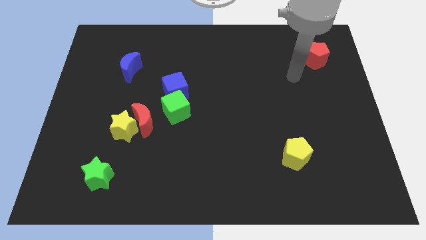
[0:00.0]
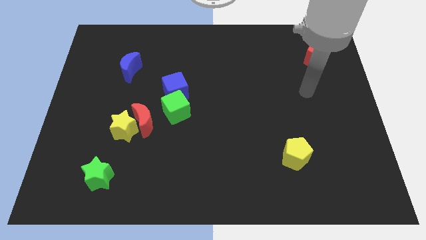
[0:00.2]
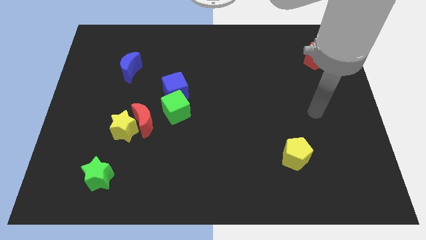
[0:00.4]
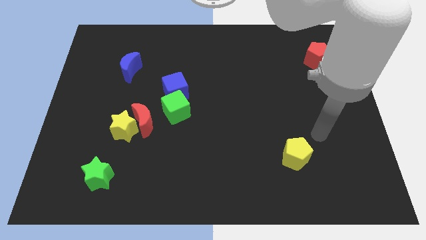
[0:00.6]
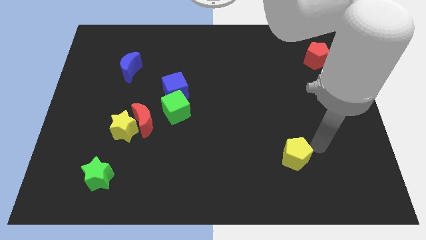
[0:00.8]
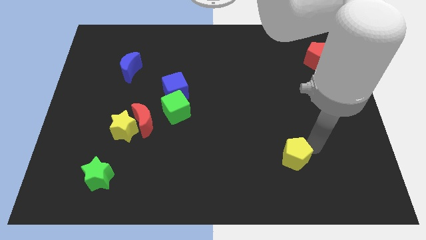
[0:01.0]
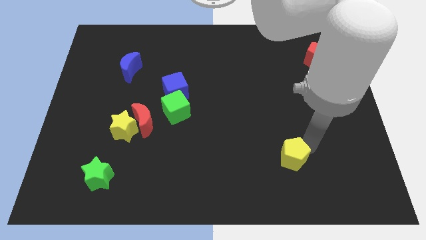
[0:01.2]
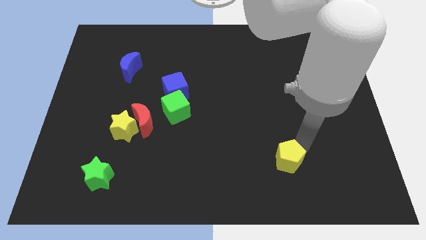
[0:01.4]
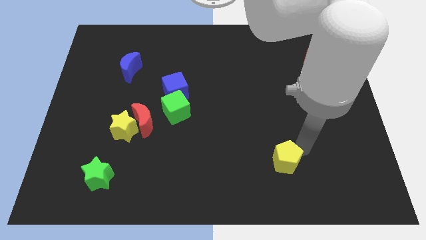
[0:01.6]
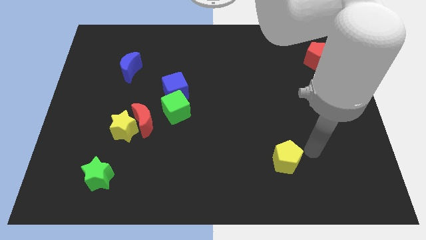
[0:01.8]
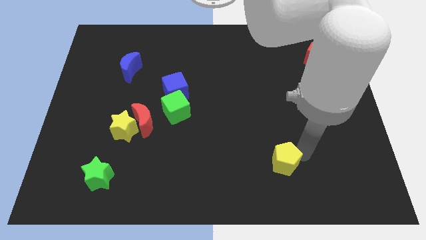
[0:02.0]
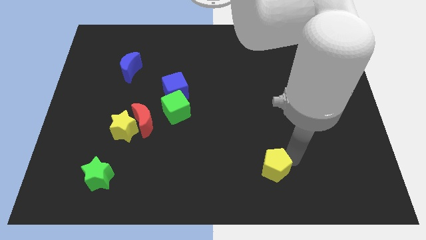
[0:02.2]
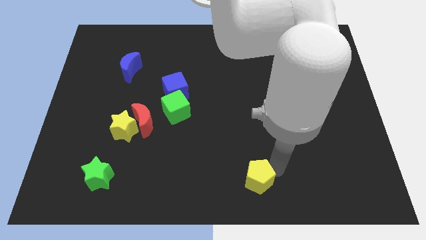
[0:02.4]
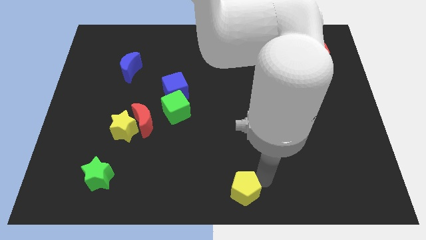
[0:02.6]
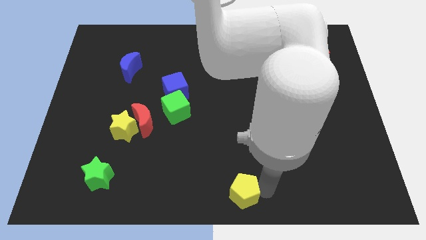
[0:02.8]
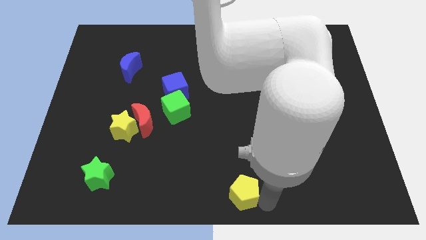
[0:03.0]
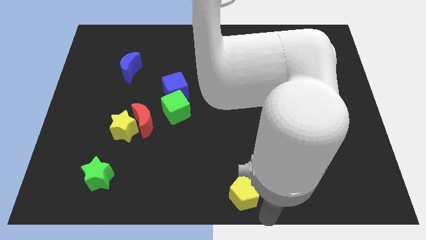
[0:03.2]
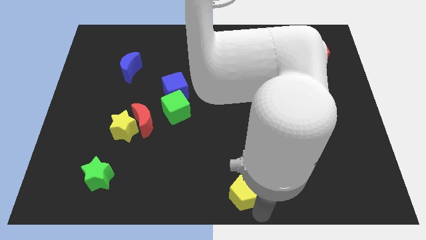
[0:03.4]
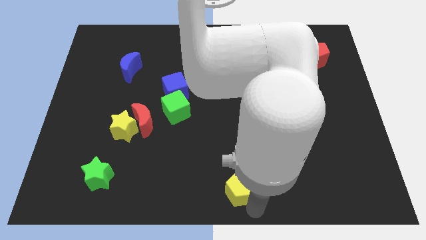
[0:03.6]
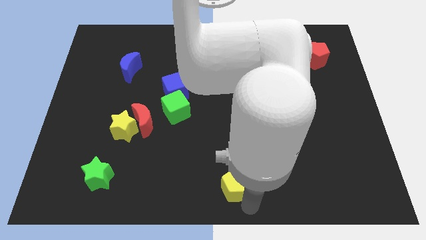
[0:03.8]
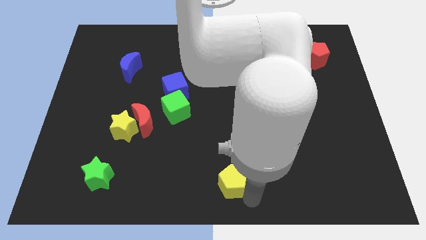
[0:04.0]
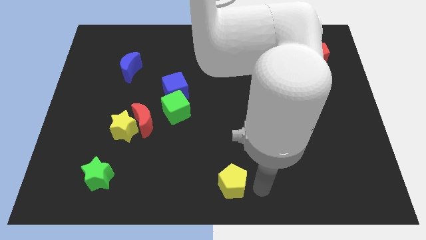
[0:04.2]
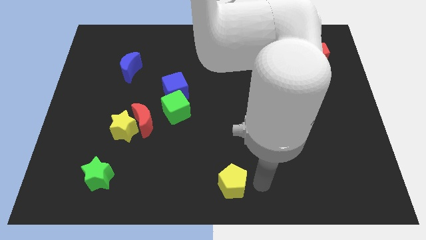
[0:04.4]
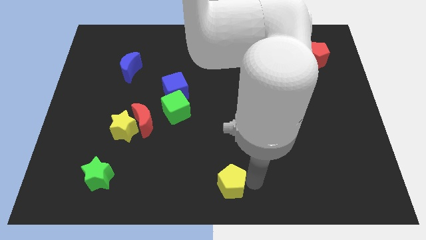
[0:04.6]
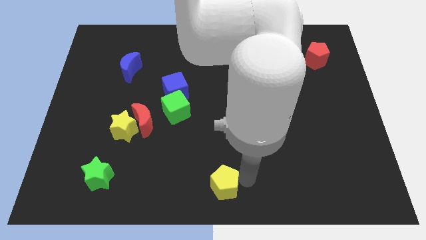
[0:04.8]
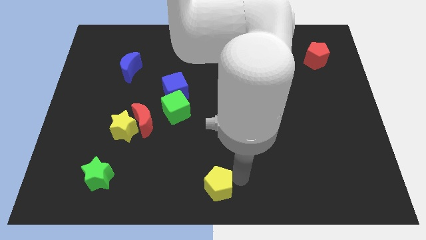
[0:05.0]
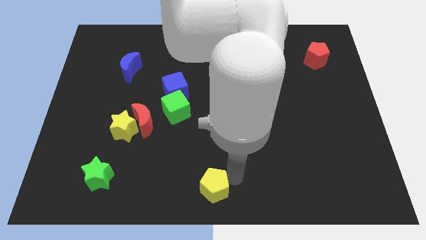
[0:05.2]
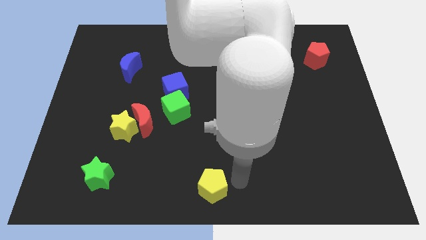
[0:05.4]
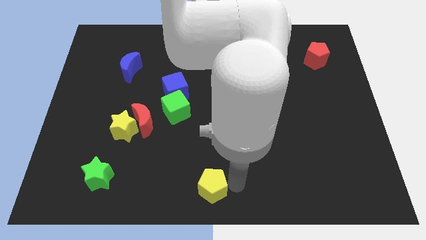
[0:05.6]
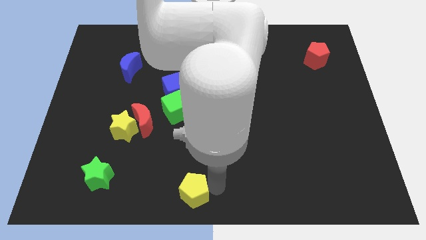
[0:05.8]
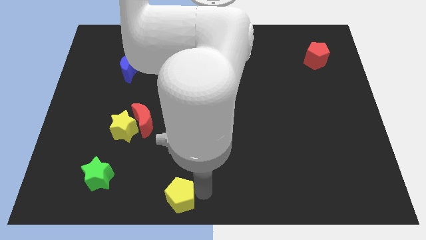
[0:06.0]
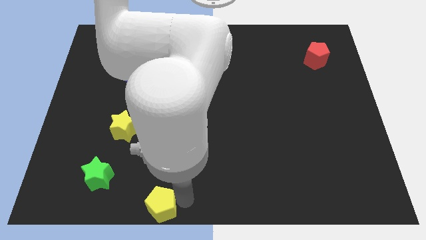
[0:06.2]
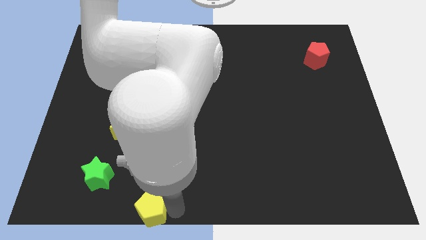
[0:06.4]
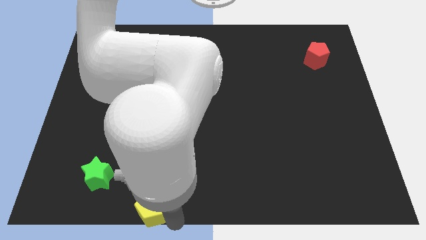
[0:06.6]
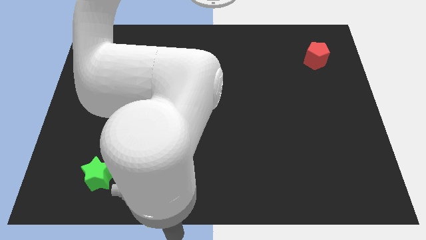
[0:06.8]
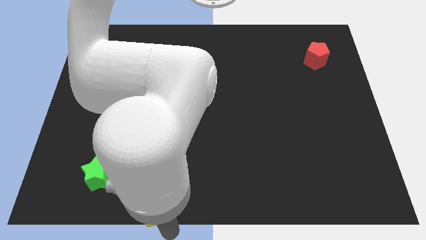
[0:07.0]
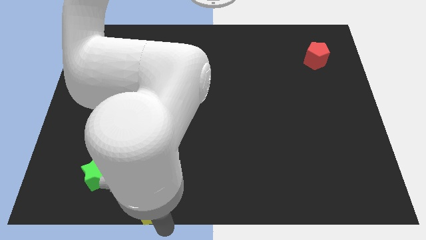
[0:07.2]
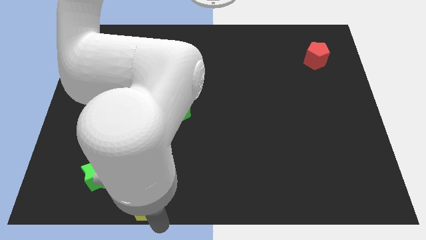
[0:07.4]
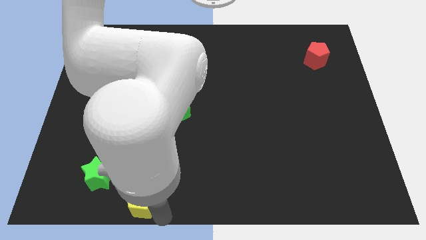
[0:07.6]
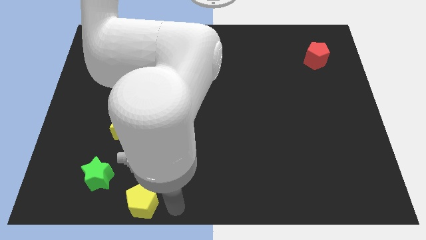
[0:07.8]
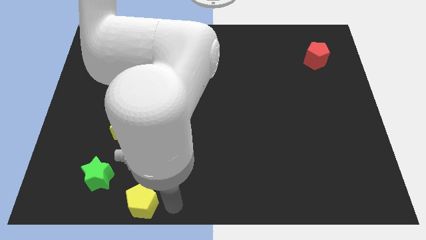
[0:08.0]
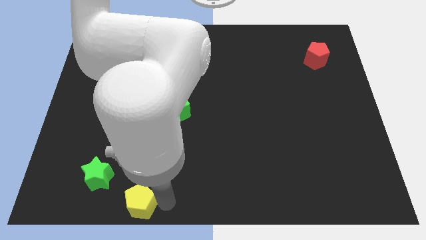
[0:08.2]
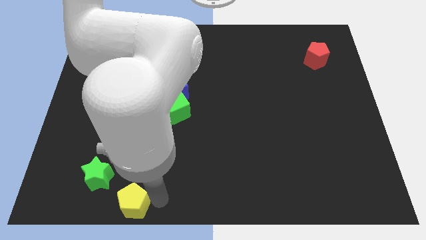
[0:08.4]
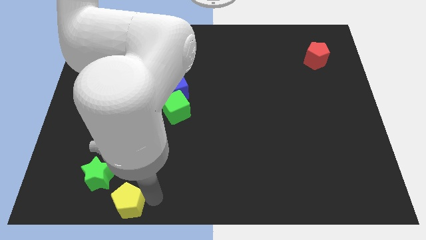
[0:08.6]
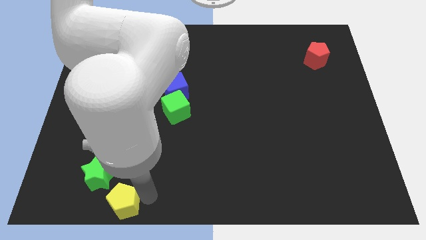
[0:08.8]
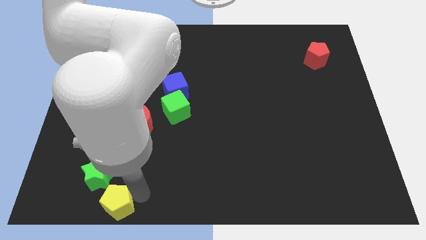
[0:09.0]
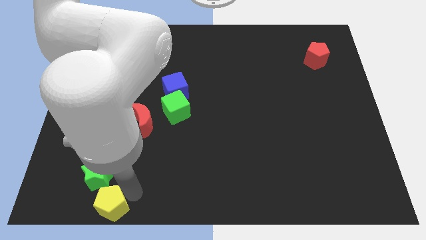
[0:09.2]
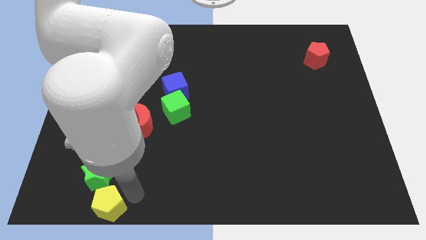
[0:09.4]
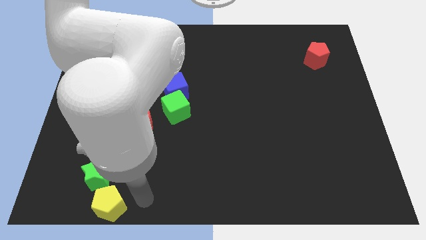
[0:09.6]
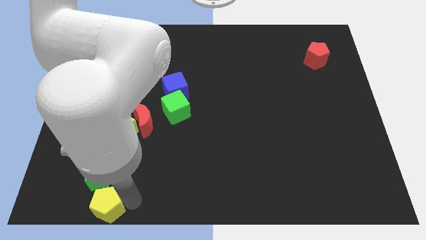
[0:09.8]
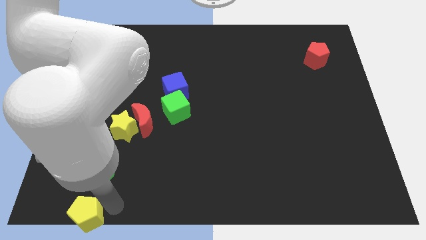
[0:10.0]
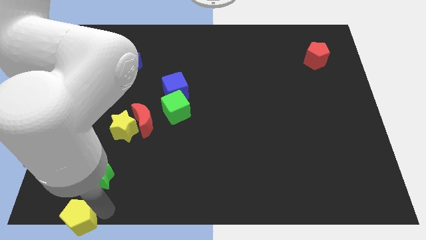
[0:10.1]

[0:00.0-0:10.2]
slide the yellow pentagon to the bottom left corner
